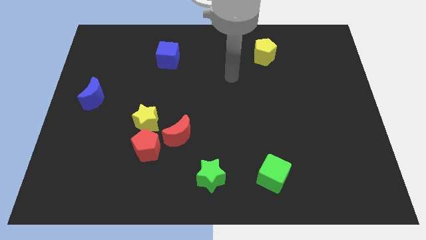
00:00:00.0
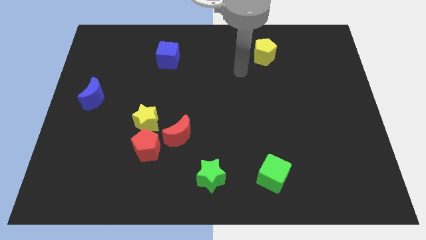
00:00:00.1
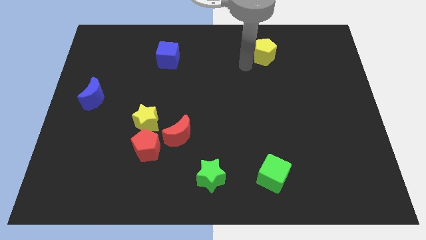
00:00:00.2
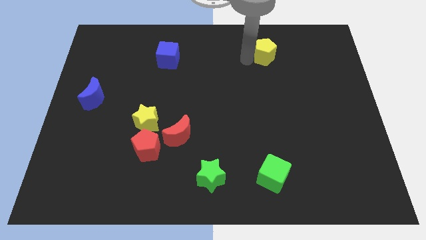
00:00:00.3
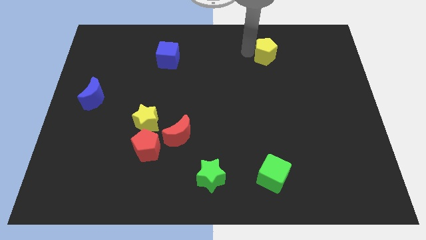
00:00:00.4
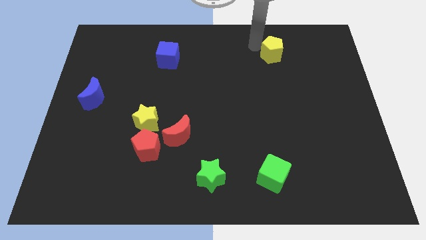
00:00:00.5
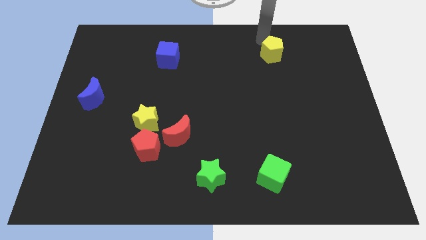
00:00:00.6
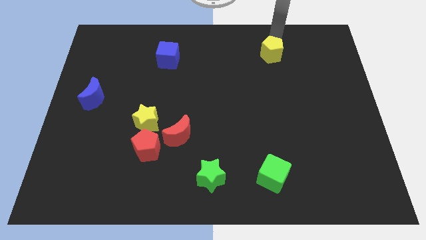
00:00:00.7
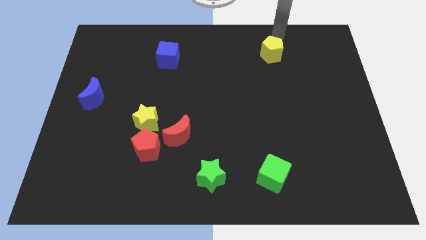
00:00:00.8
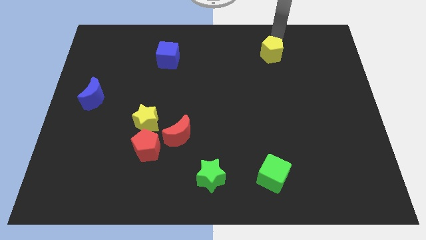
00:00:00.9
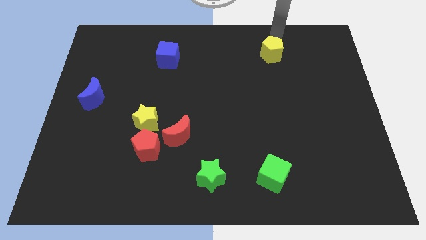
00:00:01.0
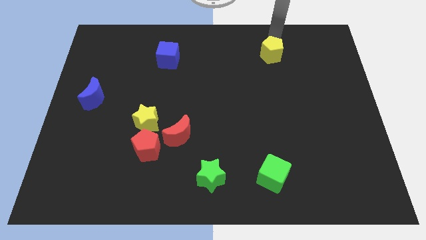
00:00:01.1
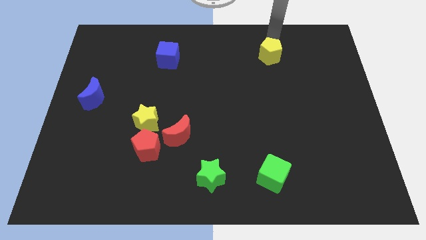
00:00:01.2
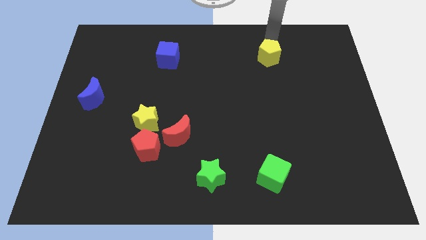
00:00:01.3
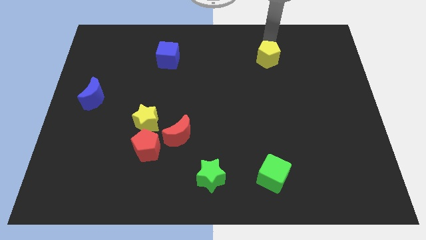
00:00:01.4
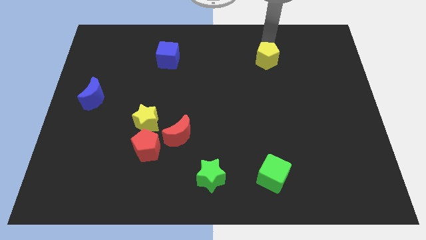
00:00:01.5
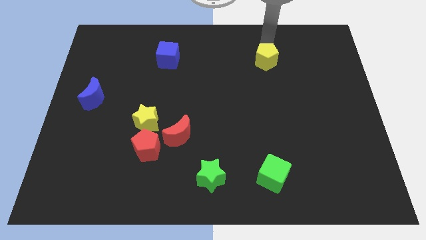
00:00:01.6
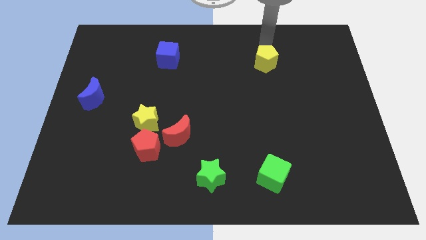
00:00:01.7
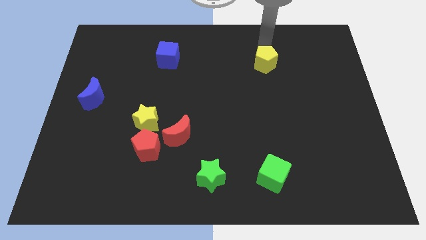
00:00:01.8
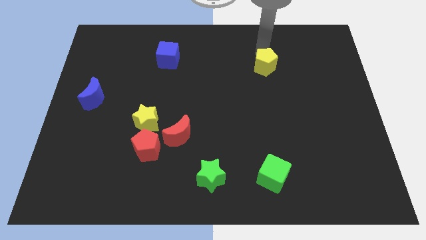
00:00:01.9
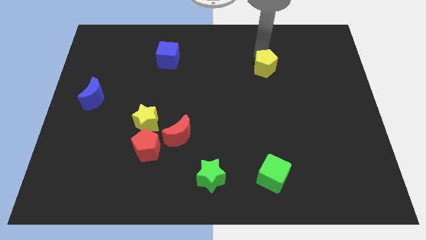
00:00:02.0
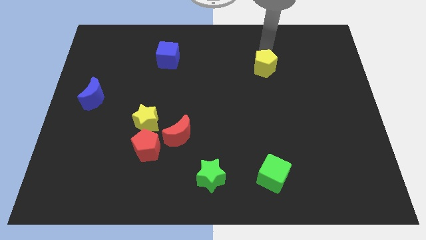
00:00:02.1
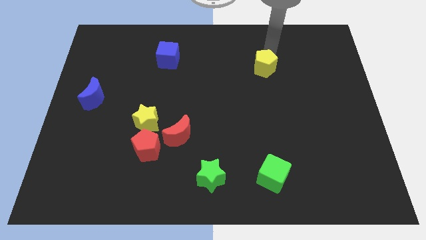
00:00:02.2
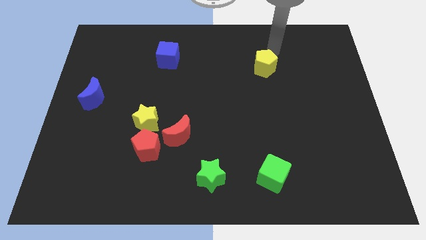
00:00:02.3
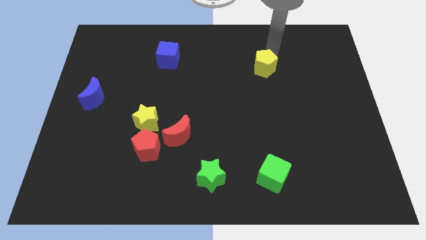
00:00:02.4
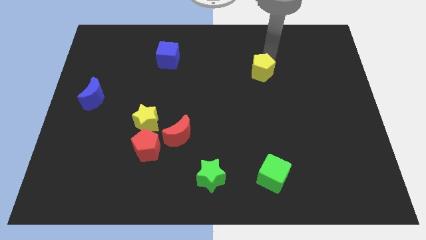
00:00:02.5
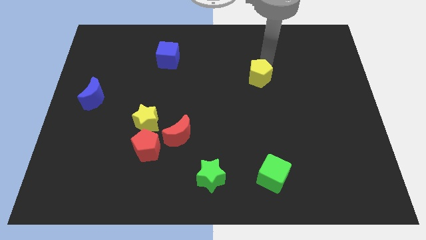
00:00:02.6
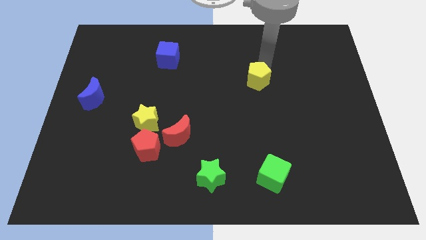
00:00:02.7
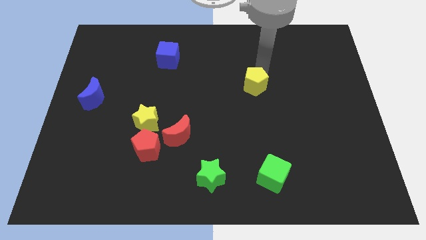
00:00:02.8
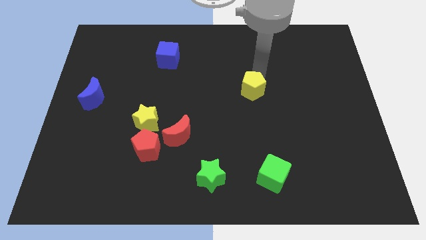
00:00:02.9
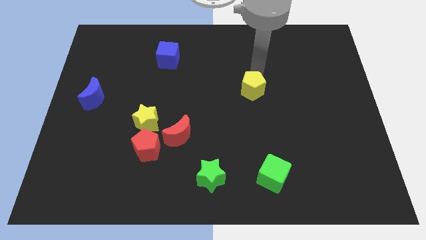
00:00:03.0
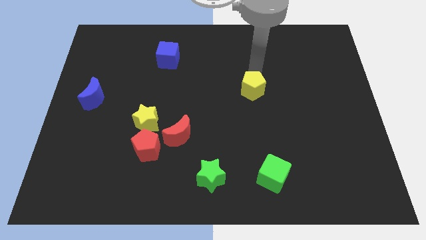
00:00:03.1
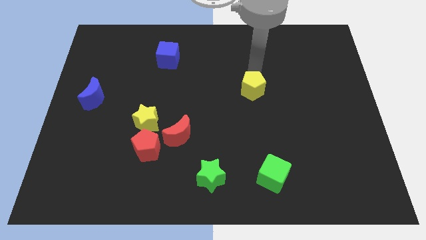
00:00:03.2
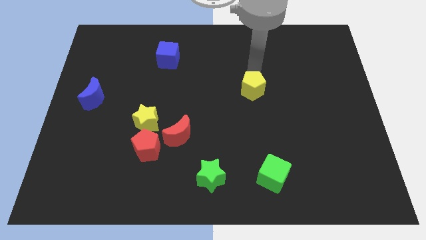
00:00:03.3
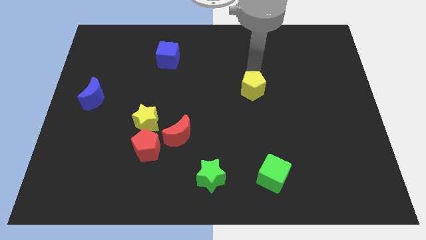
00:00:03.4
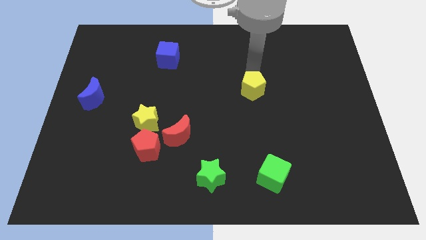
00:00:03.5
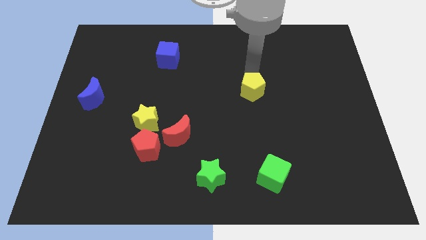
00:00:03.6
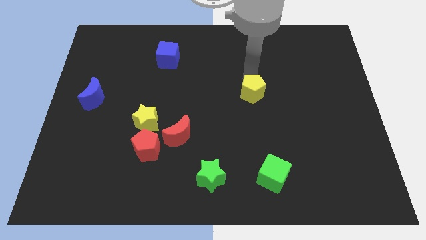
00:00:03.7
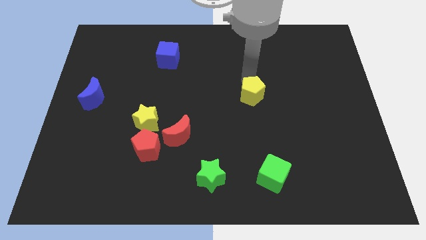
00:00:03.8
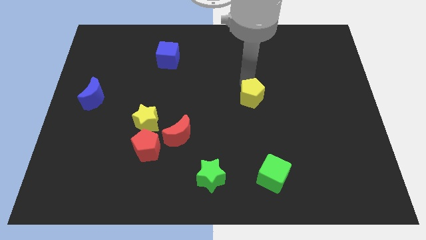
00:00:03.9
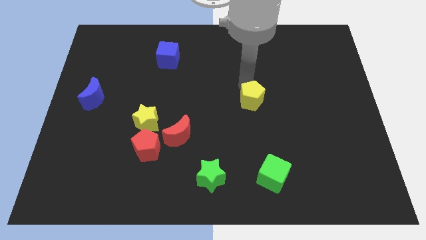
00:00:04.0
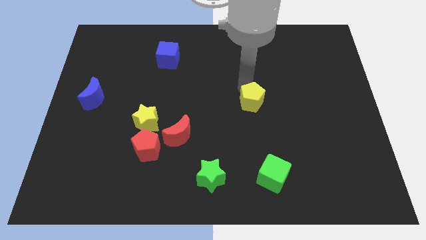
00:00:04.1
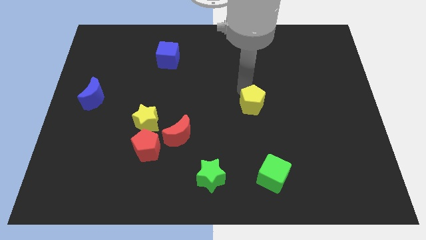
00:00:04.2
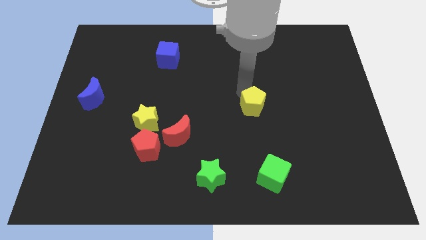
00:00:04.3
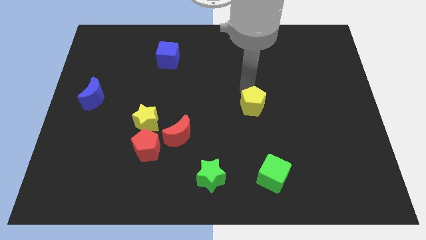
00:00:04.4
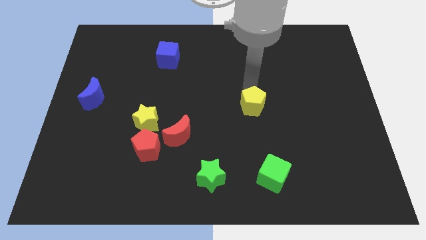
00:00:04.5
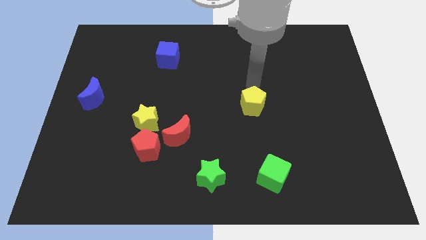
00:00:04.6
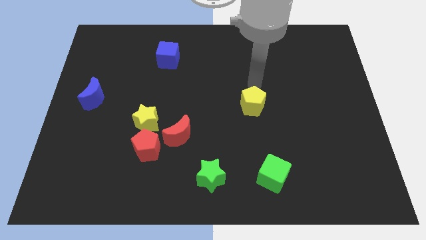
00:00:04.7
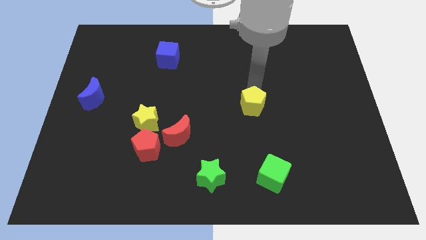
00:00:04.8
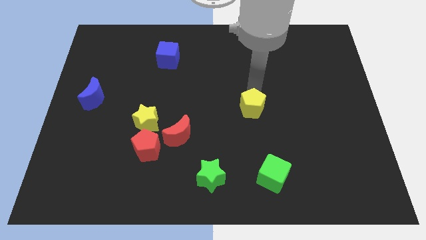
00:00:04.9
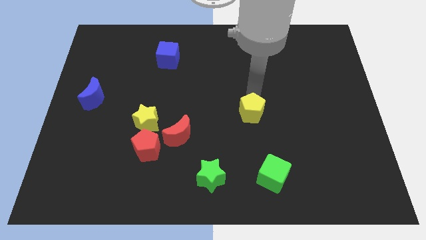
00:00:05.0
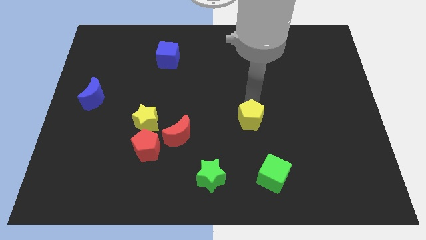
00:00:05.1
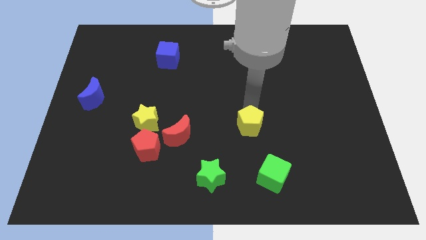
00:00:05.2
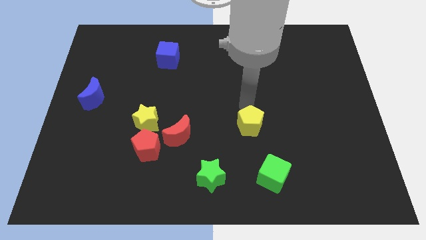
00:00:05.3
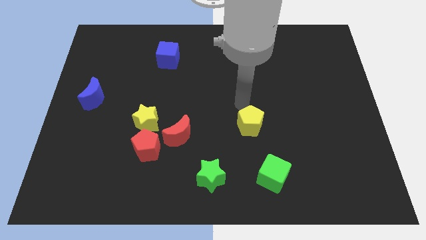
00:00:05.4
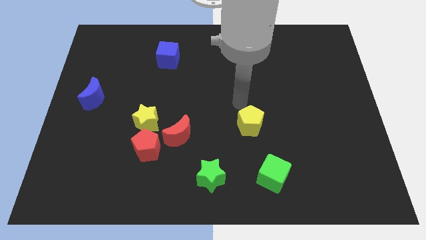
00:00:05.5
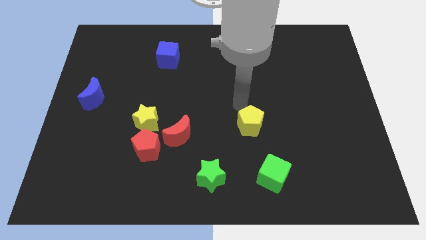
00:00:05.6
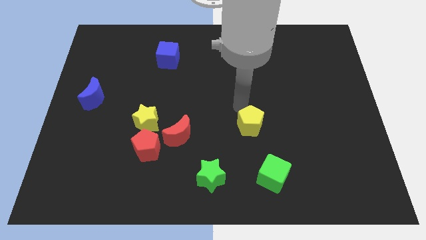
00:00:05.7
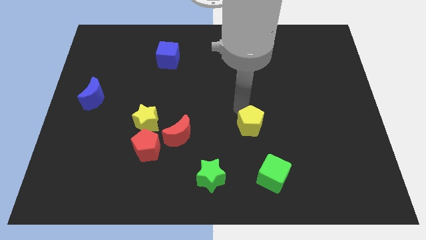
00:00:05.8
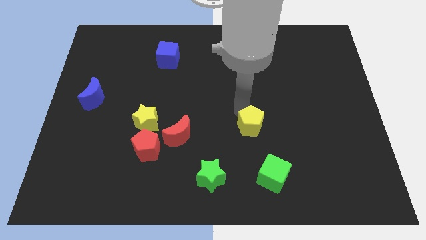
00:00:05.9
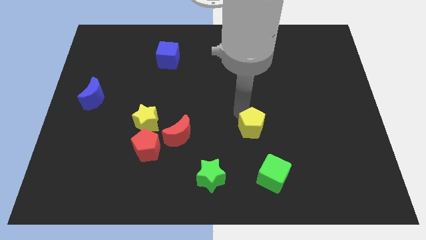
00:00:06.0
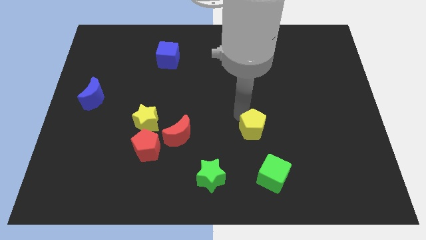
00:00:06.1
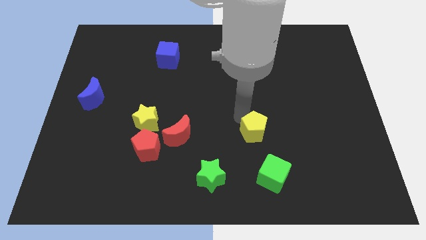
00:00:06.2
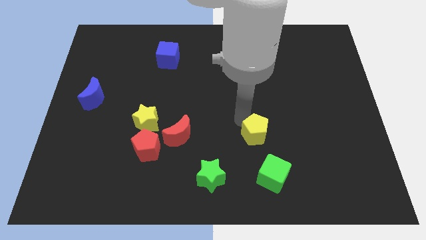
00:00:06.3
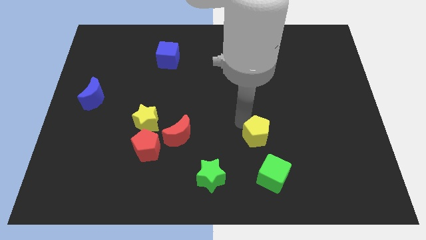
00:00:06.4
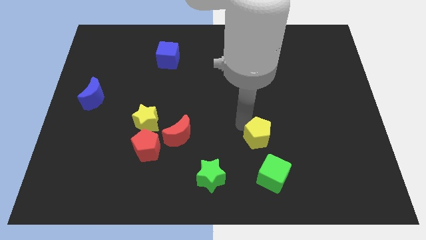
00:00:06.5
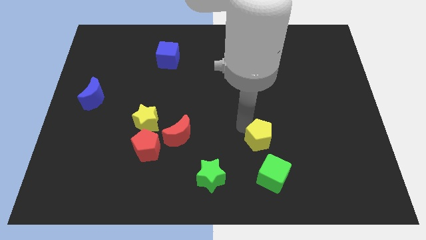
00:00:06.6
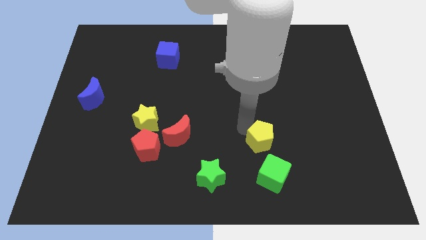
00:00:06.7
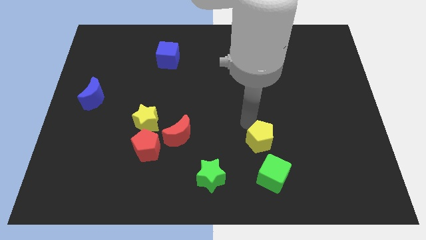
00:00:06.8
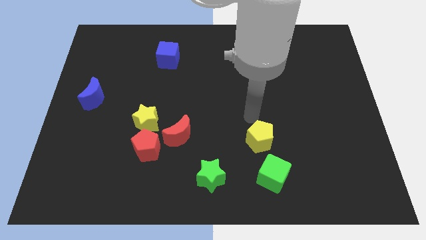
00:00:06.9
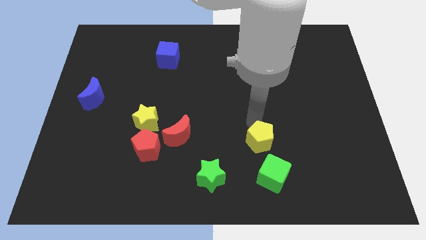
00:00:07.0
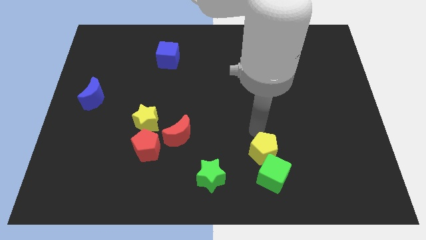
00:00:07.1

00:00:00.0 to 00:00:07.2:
slide the yellow pentagon towards the green cube

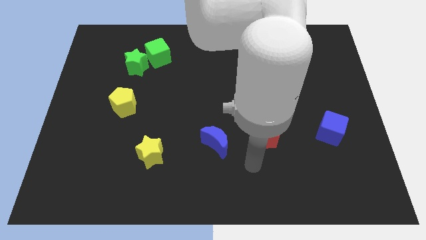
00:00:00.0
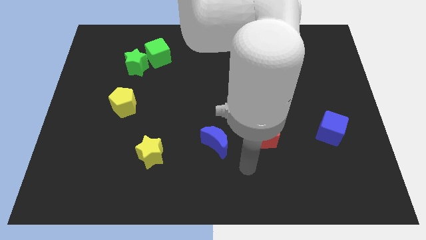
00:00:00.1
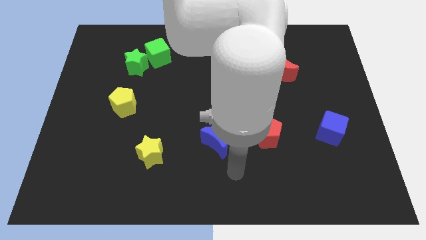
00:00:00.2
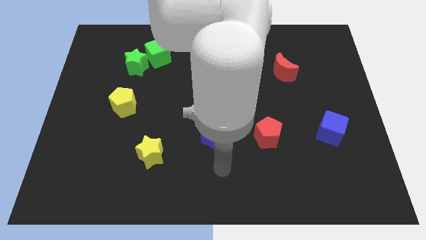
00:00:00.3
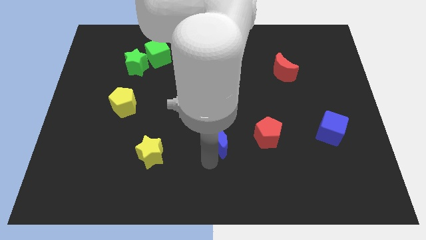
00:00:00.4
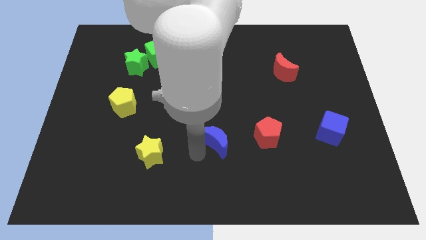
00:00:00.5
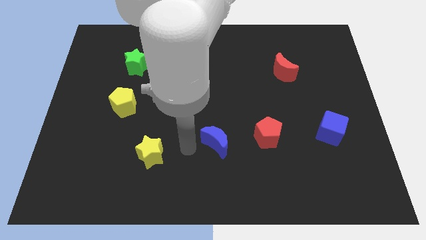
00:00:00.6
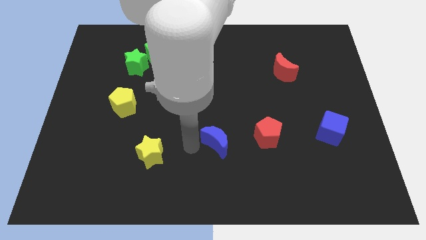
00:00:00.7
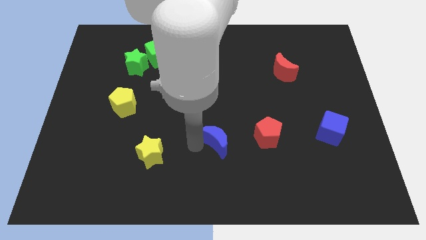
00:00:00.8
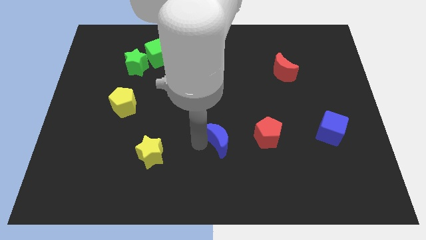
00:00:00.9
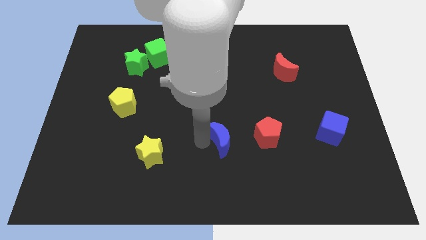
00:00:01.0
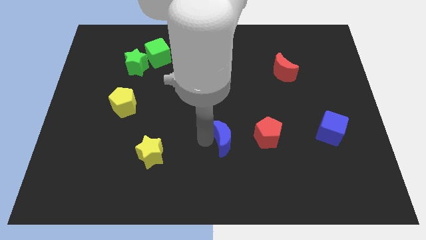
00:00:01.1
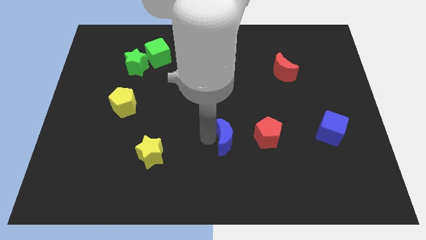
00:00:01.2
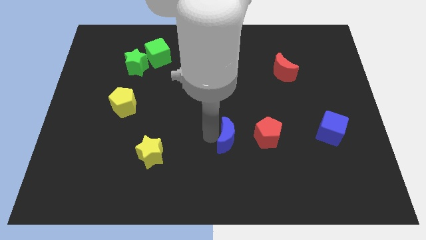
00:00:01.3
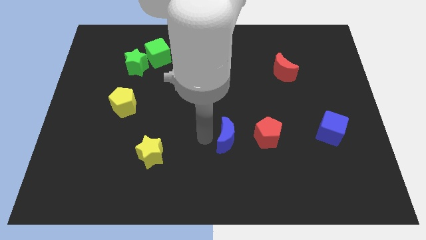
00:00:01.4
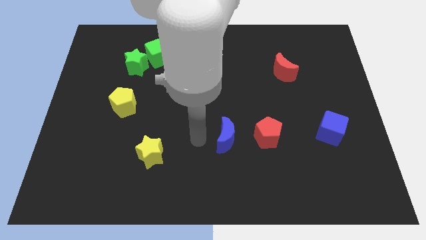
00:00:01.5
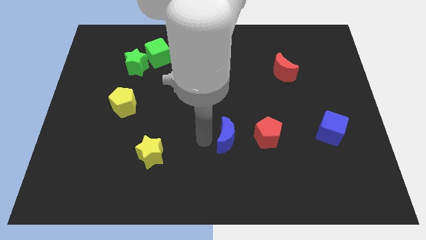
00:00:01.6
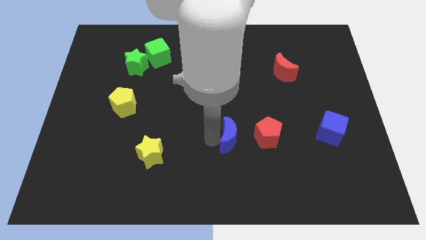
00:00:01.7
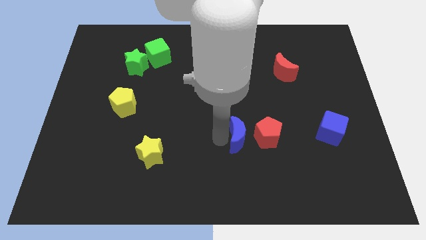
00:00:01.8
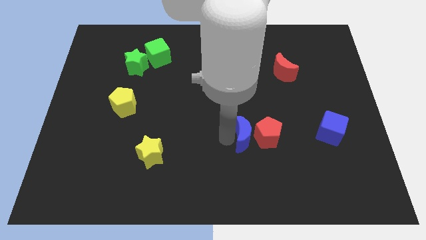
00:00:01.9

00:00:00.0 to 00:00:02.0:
put the blue moon to the red pentagon
